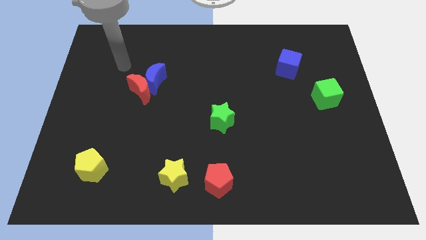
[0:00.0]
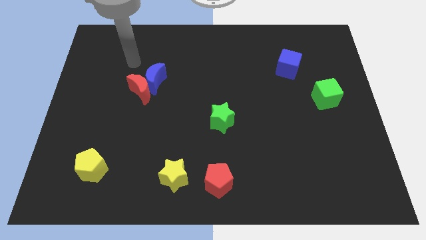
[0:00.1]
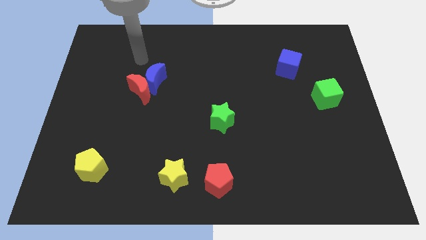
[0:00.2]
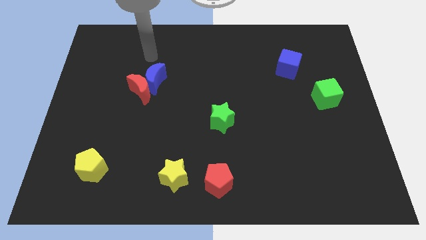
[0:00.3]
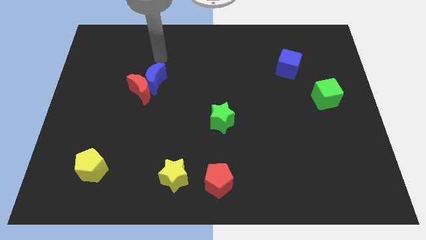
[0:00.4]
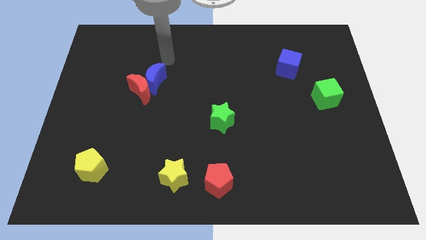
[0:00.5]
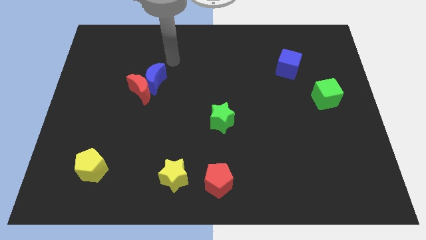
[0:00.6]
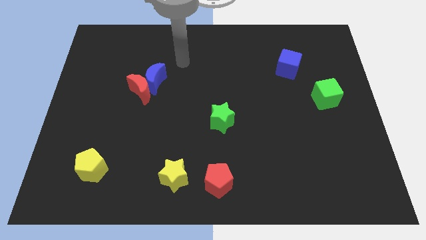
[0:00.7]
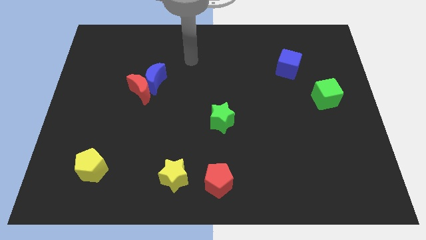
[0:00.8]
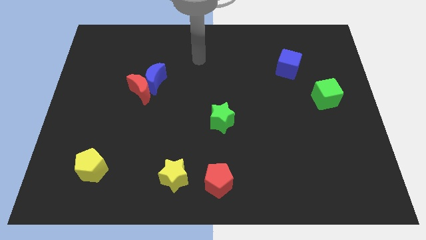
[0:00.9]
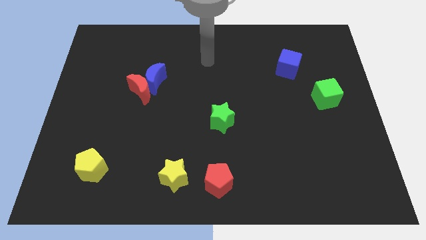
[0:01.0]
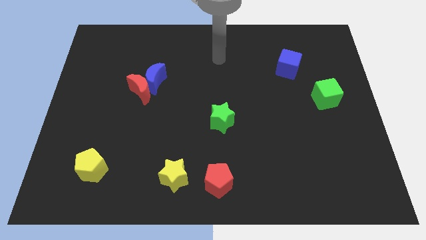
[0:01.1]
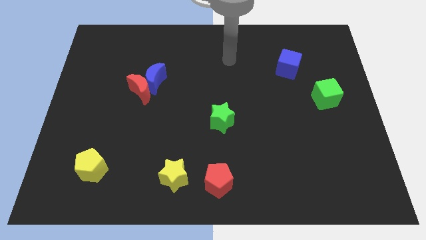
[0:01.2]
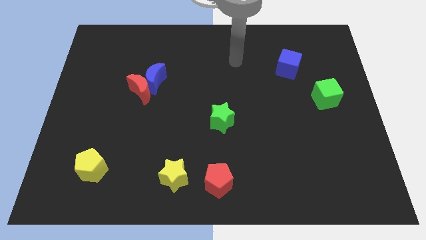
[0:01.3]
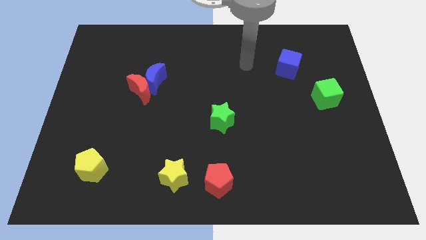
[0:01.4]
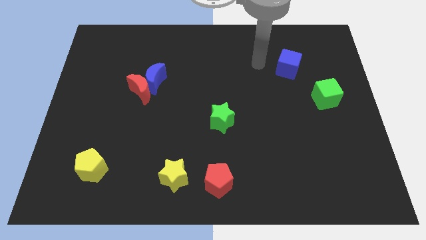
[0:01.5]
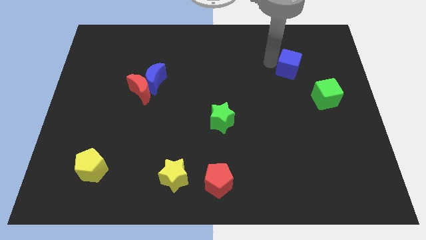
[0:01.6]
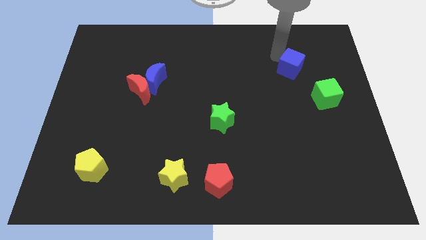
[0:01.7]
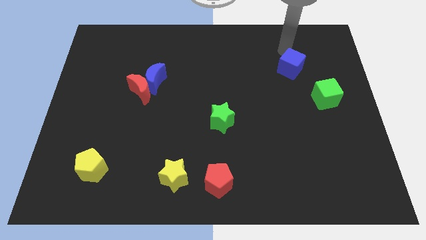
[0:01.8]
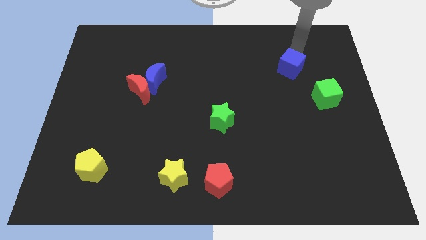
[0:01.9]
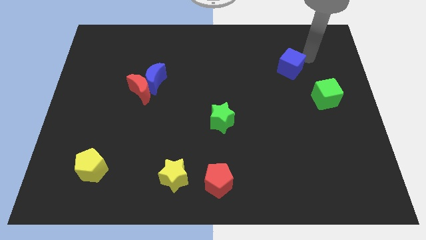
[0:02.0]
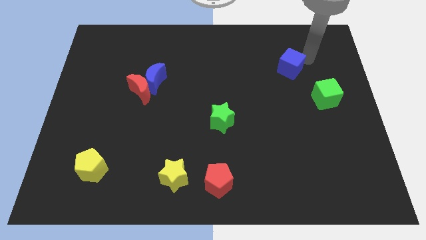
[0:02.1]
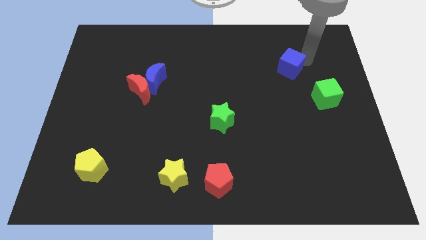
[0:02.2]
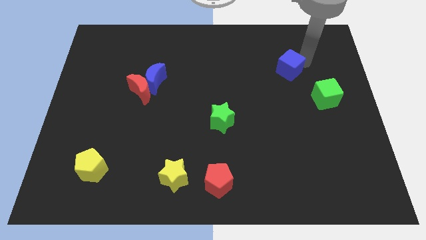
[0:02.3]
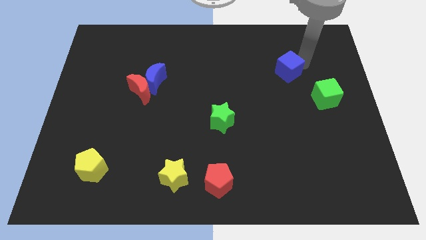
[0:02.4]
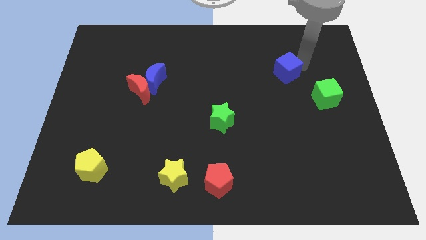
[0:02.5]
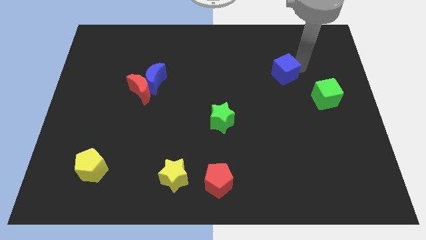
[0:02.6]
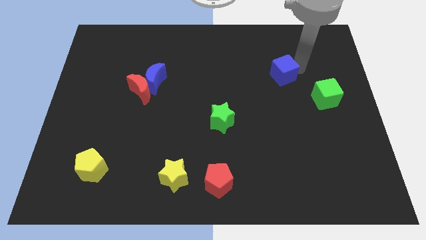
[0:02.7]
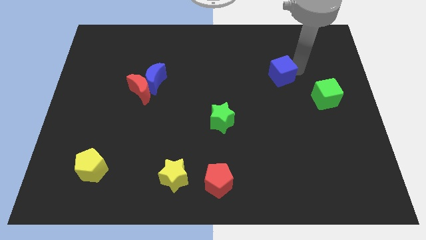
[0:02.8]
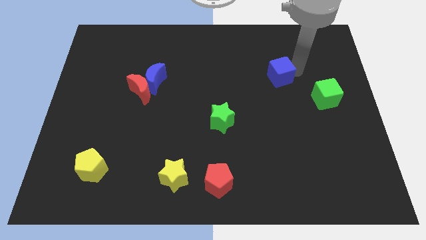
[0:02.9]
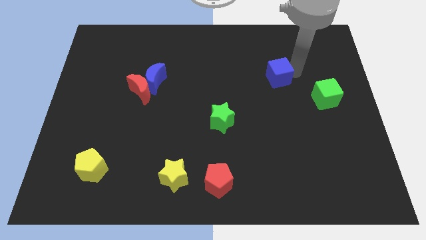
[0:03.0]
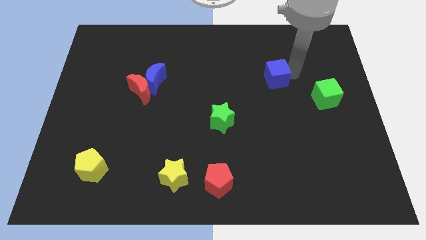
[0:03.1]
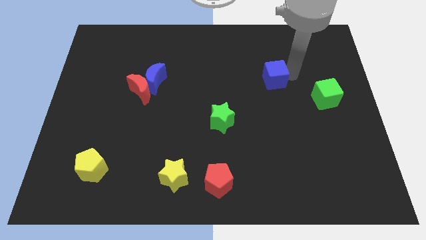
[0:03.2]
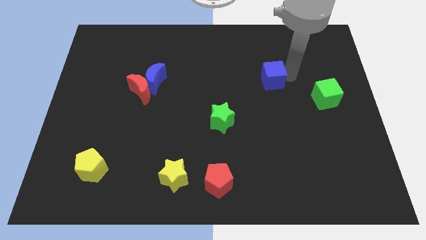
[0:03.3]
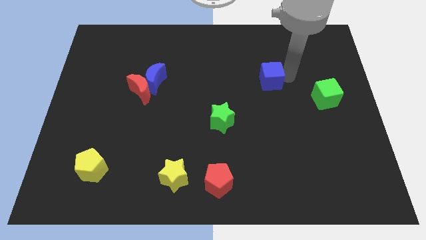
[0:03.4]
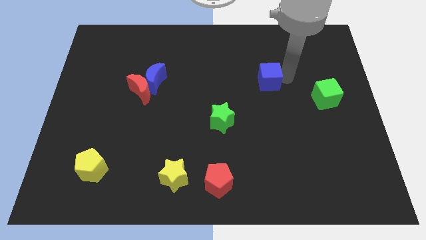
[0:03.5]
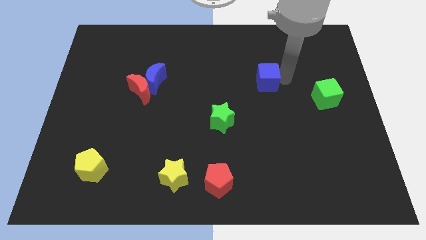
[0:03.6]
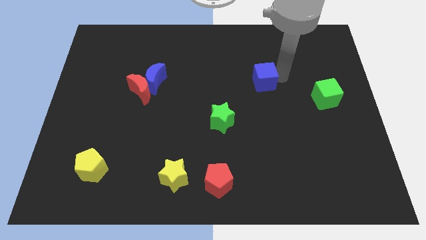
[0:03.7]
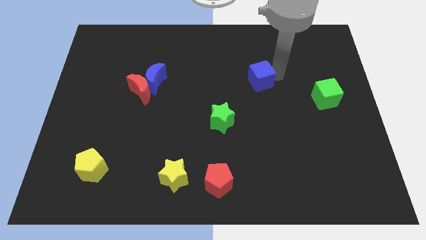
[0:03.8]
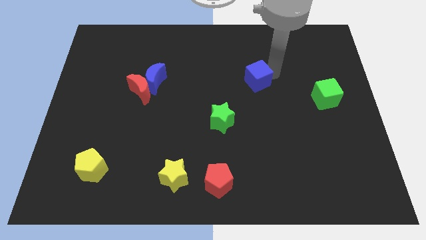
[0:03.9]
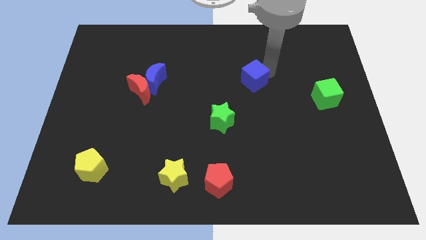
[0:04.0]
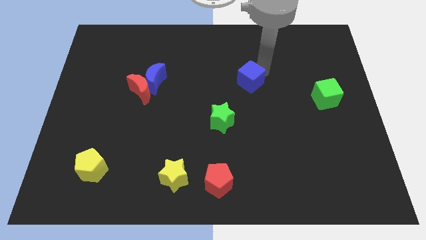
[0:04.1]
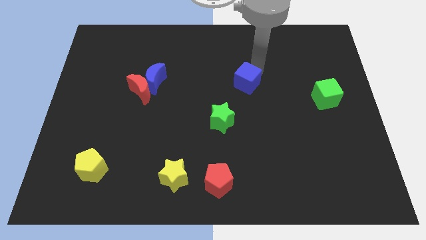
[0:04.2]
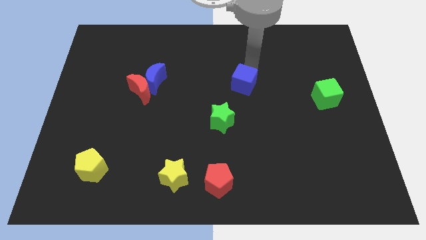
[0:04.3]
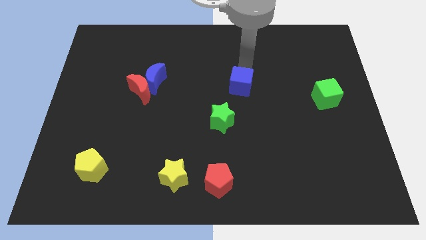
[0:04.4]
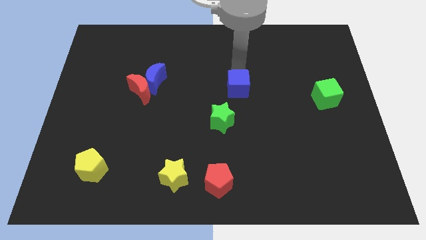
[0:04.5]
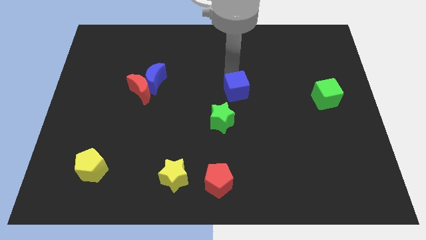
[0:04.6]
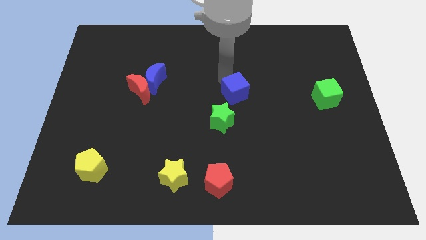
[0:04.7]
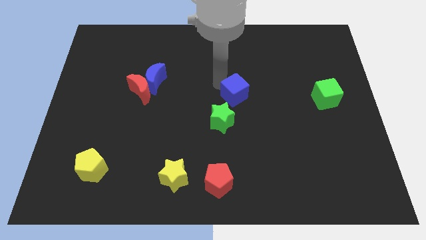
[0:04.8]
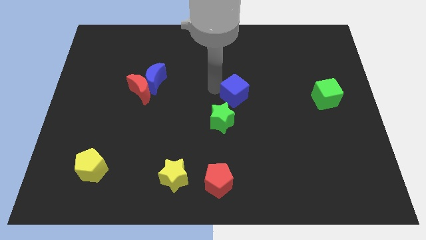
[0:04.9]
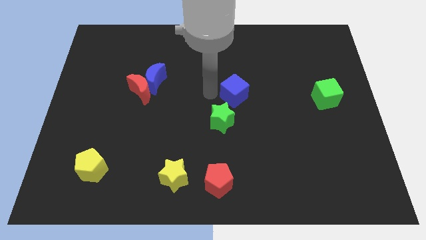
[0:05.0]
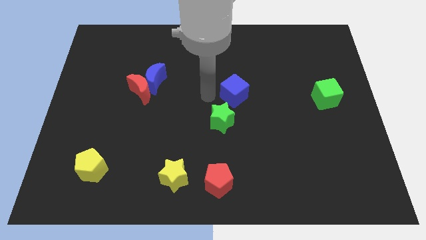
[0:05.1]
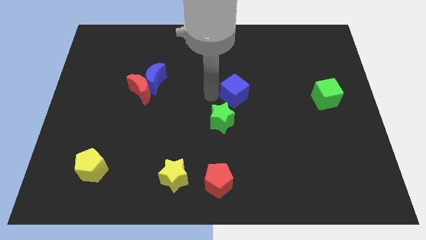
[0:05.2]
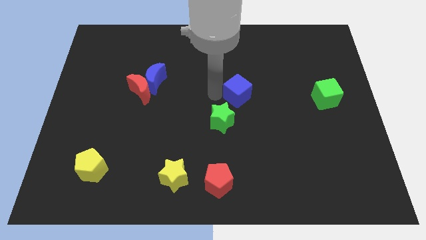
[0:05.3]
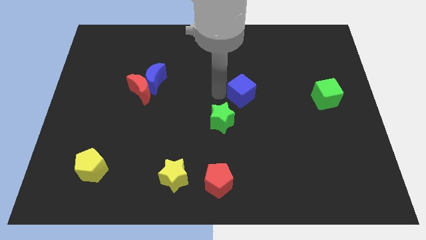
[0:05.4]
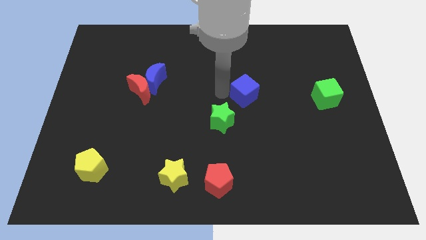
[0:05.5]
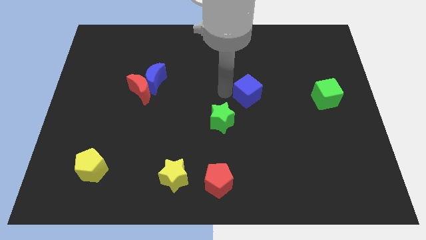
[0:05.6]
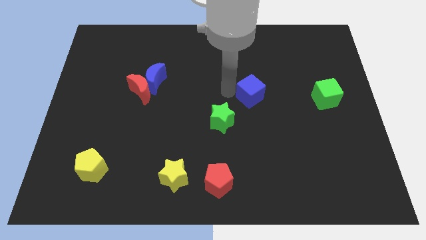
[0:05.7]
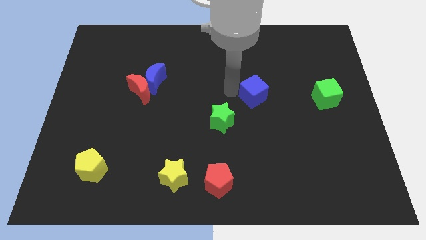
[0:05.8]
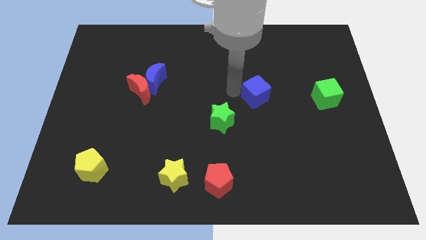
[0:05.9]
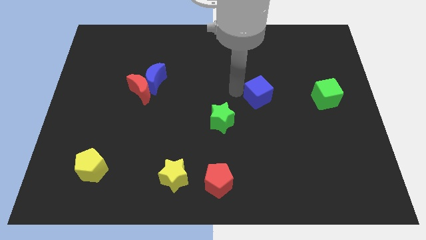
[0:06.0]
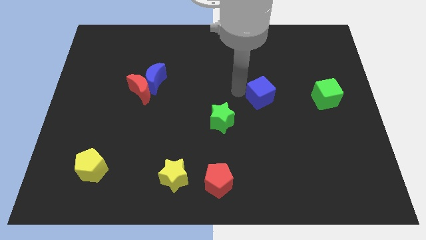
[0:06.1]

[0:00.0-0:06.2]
move the blue cube downwards a bit

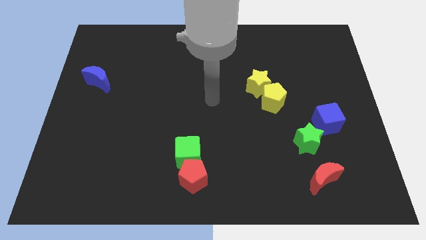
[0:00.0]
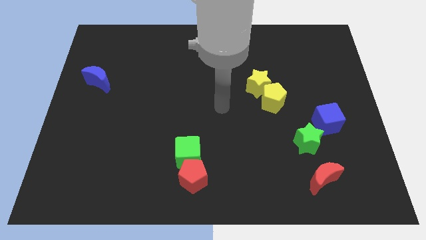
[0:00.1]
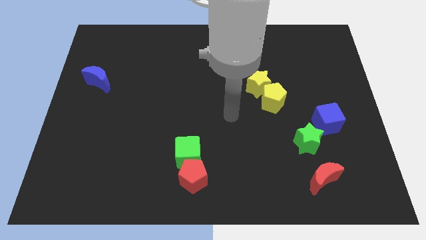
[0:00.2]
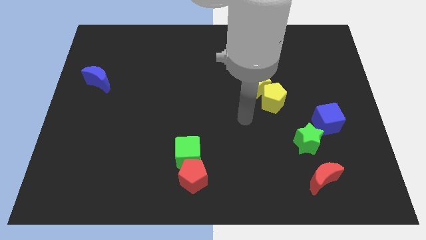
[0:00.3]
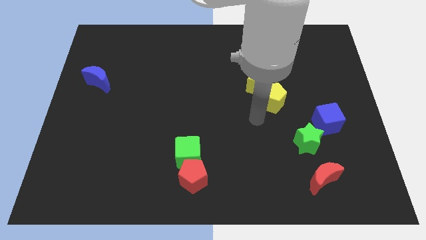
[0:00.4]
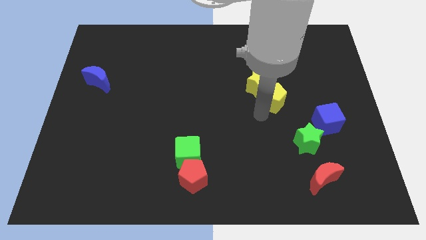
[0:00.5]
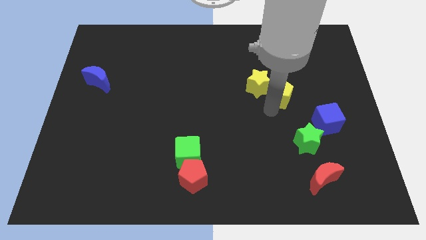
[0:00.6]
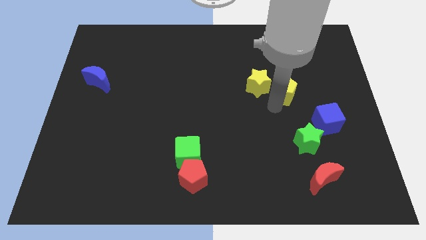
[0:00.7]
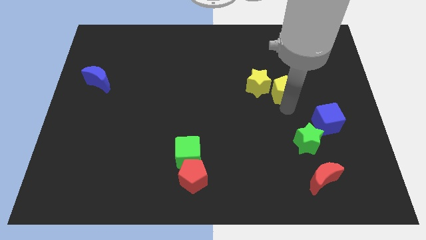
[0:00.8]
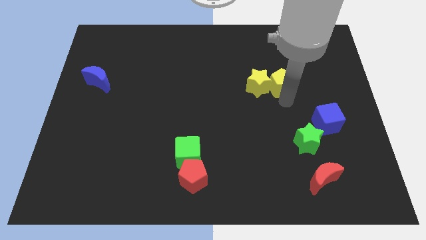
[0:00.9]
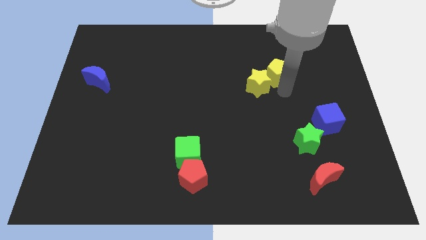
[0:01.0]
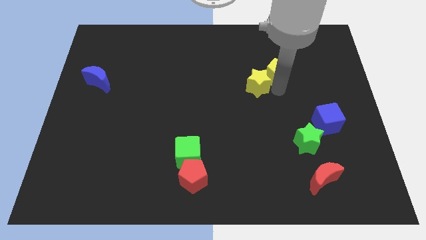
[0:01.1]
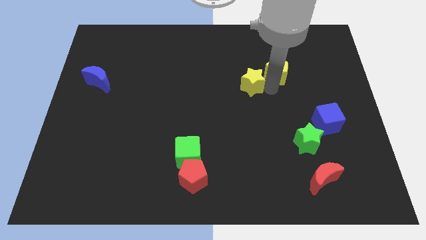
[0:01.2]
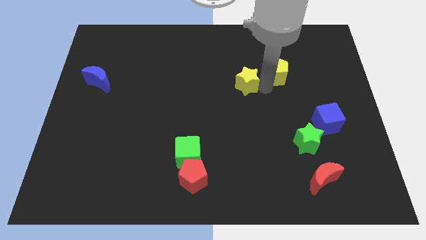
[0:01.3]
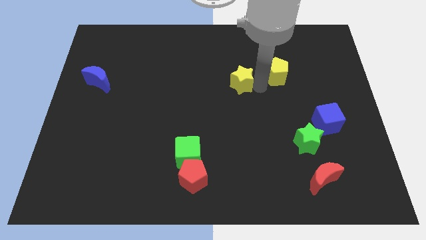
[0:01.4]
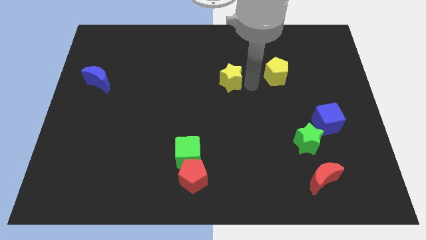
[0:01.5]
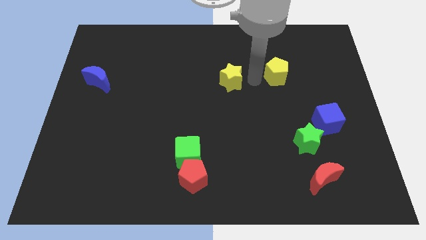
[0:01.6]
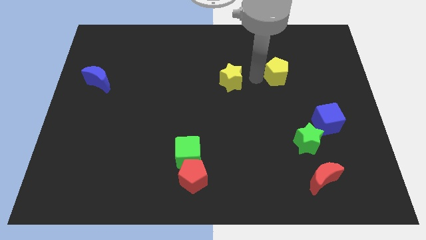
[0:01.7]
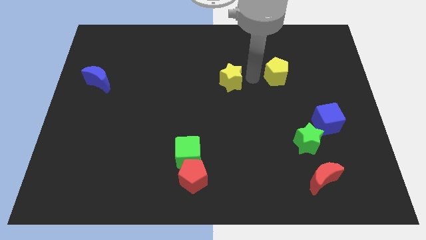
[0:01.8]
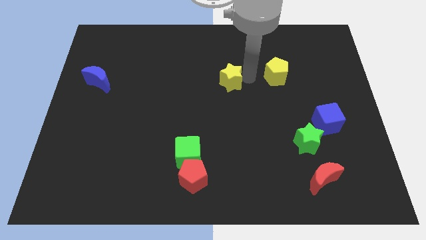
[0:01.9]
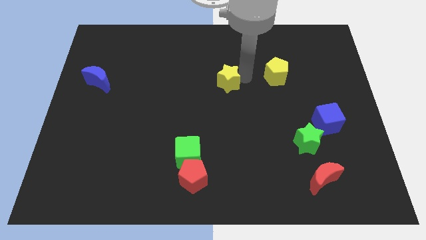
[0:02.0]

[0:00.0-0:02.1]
push the yellow star a bit to the left
